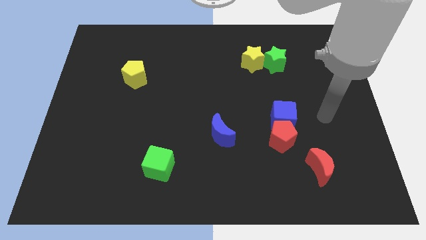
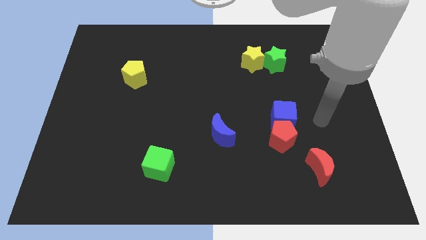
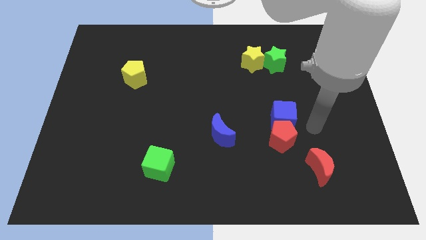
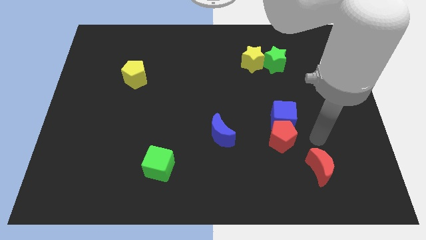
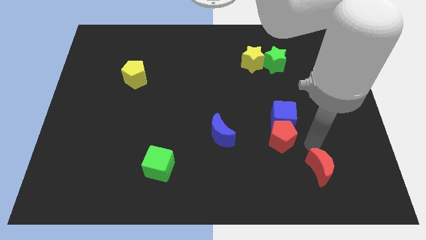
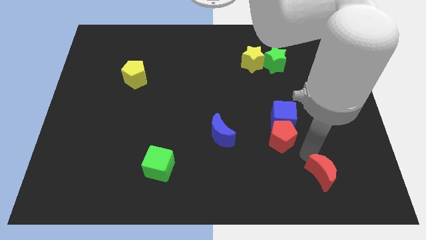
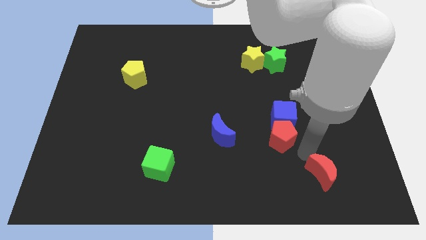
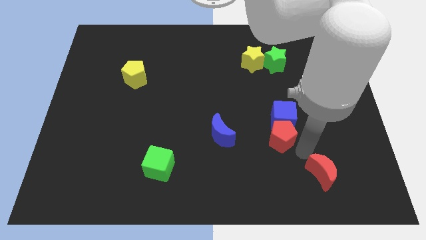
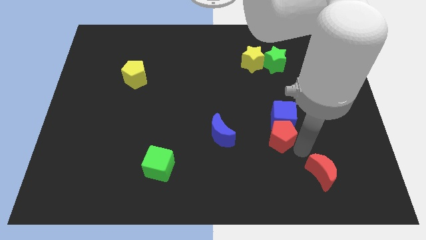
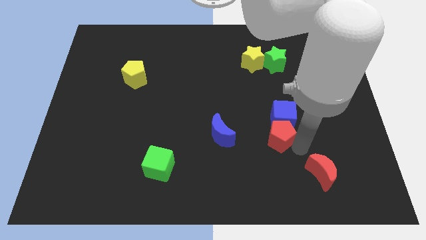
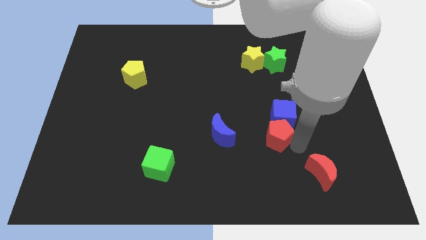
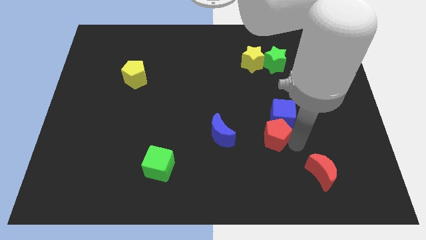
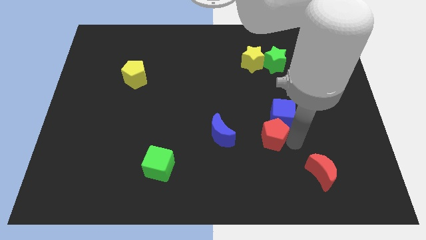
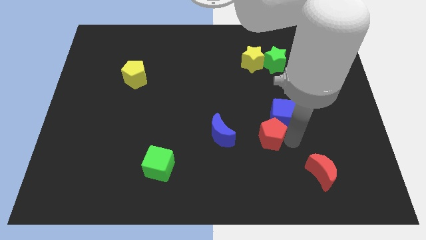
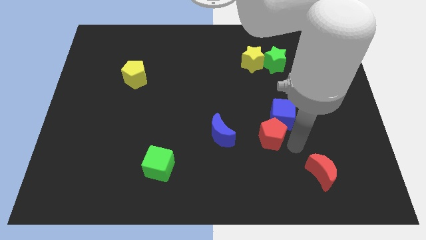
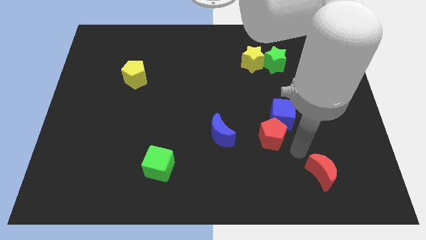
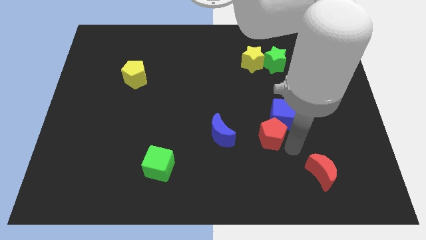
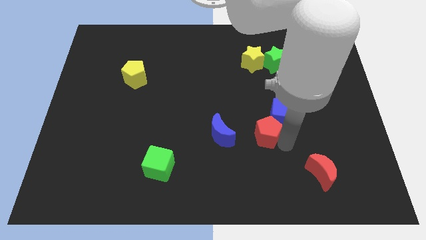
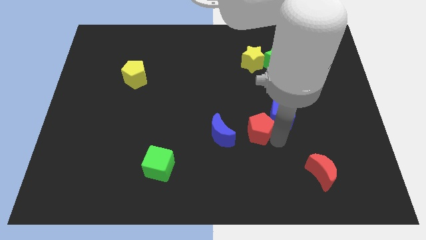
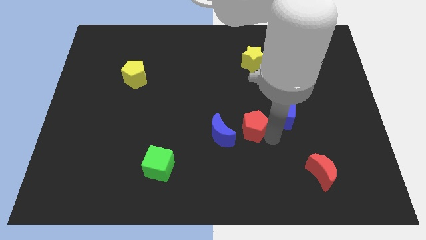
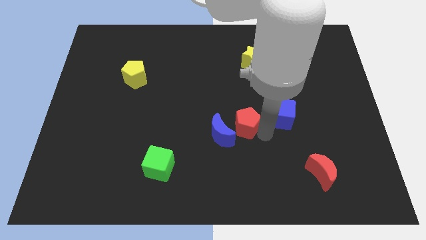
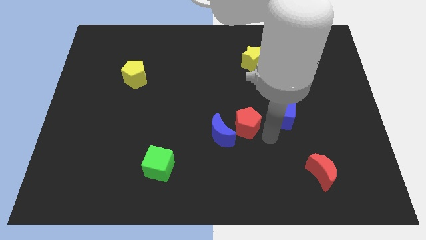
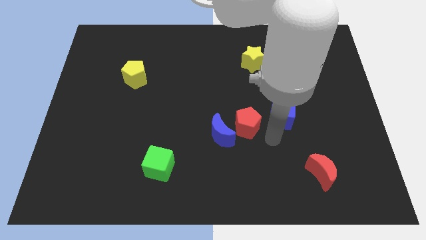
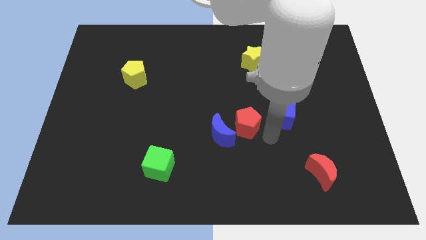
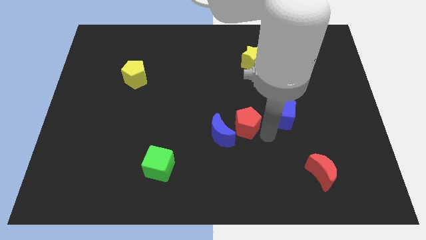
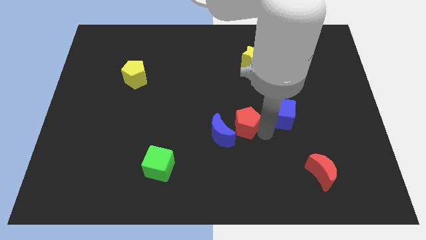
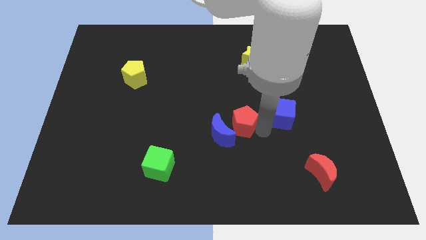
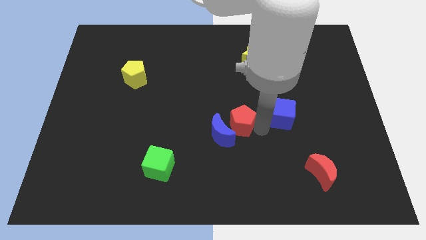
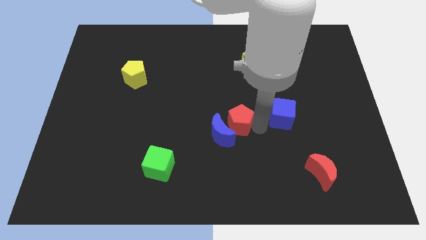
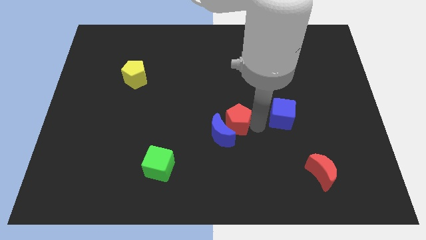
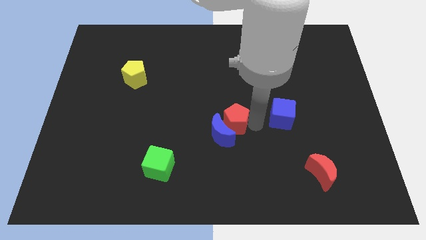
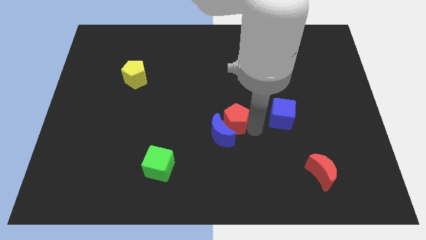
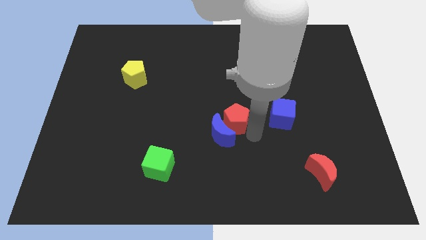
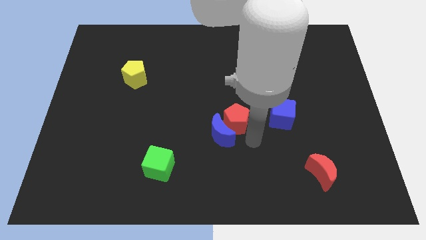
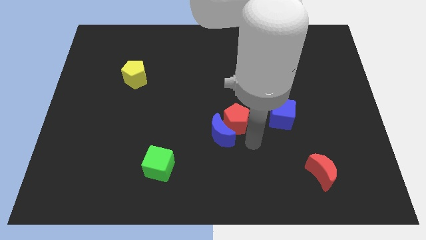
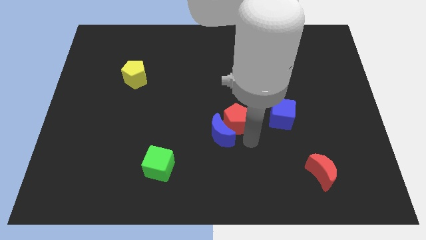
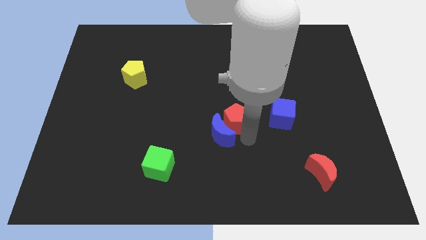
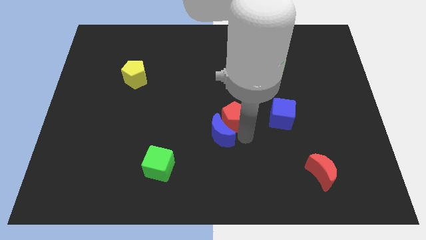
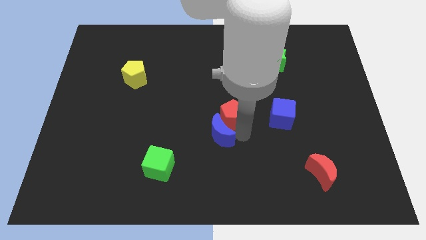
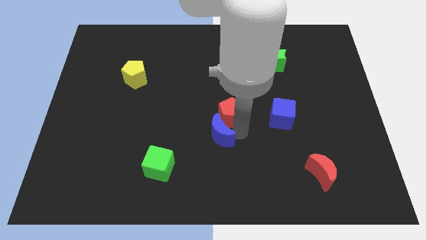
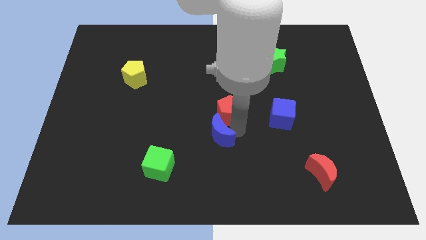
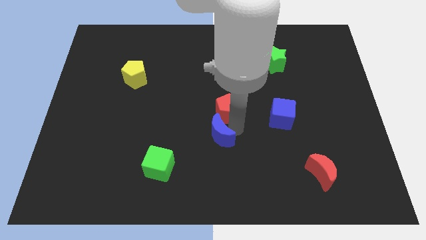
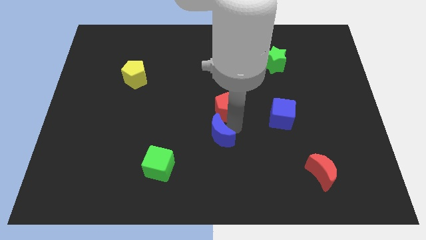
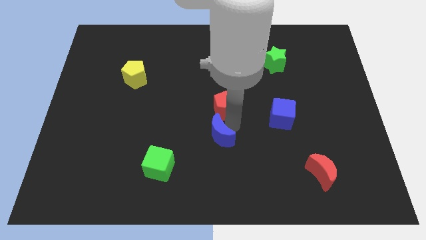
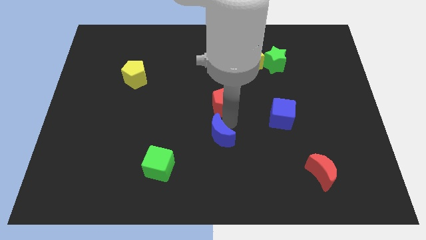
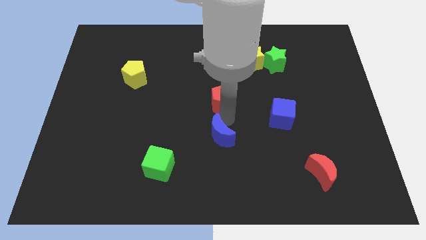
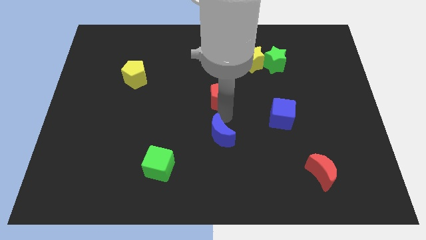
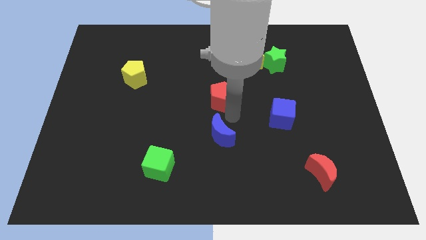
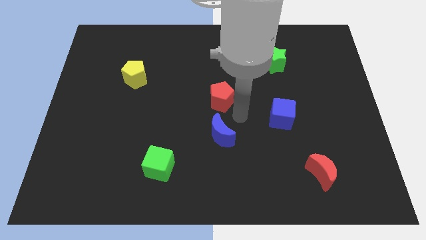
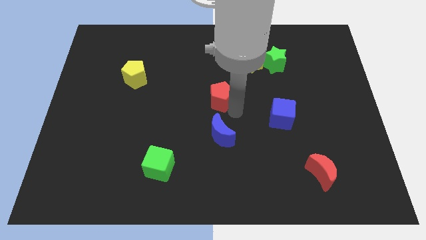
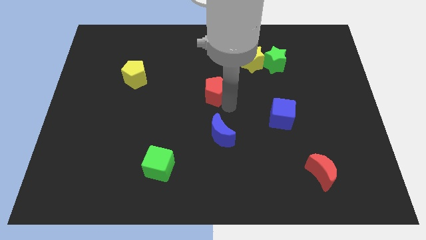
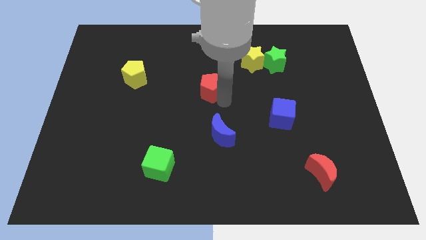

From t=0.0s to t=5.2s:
move the red pentagon up and to the left diagonally

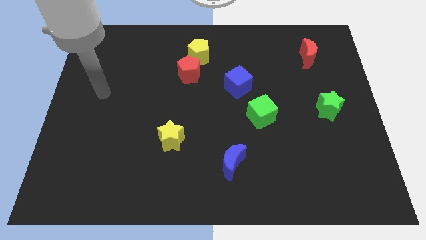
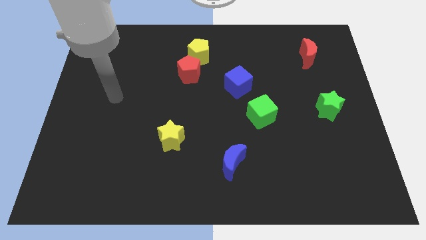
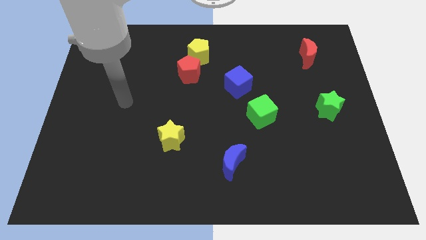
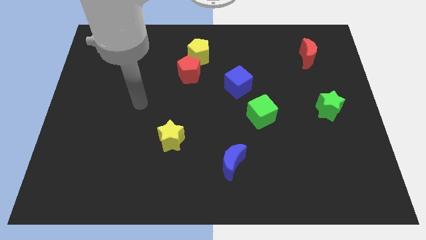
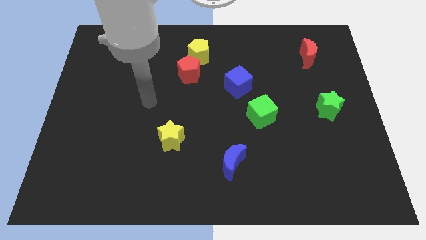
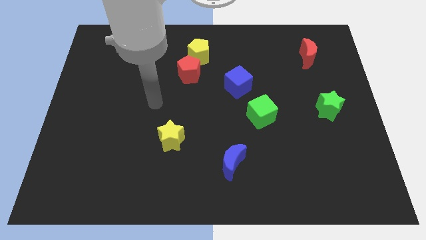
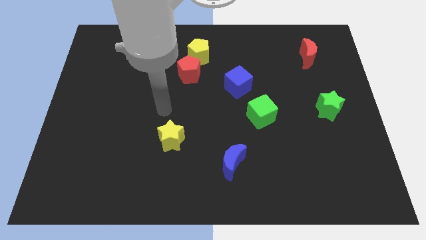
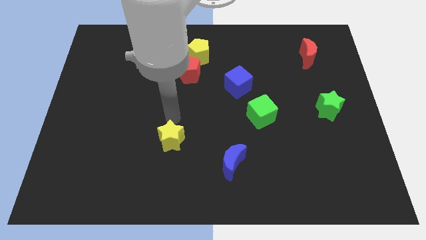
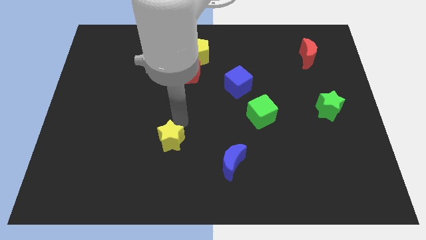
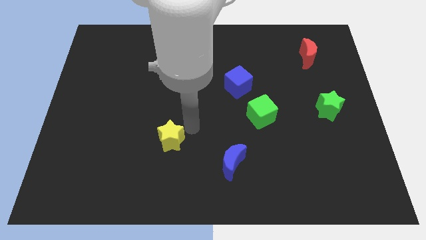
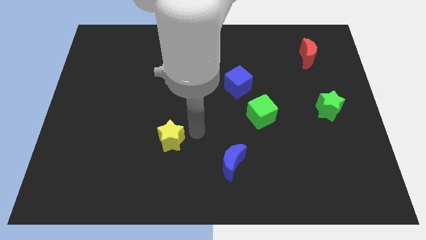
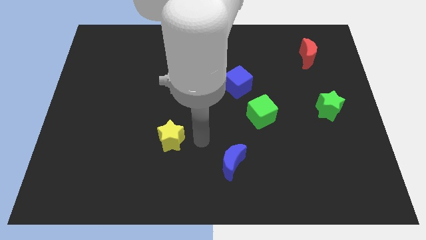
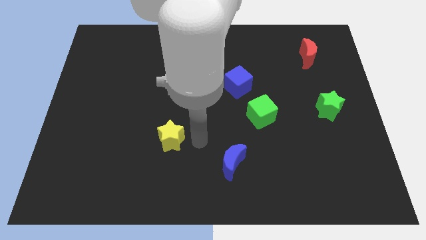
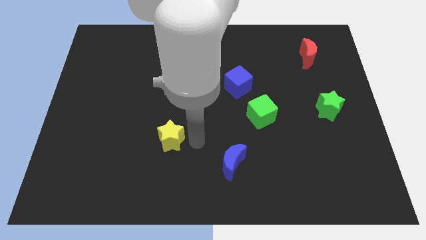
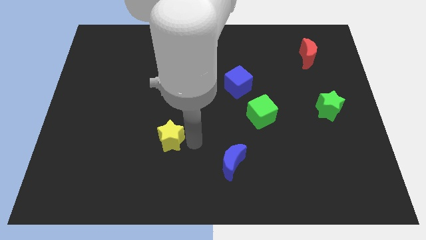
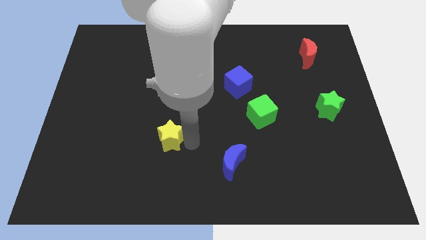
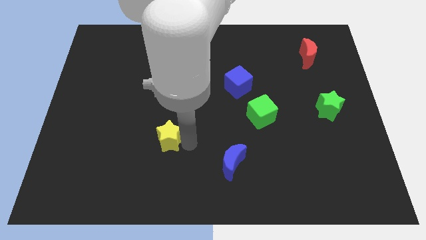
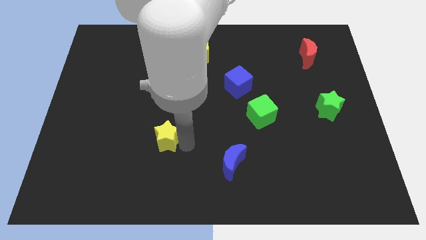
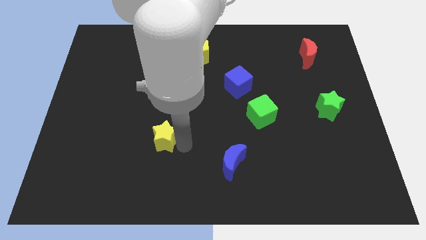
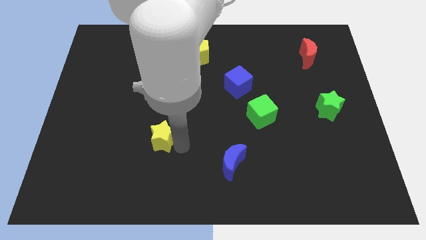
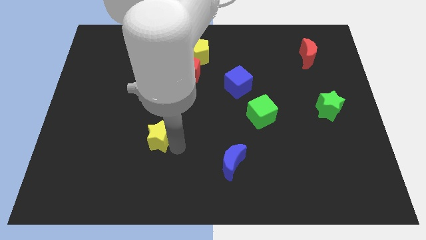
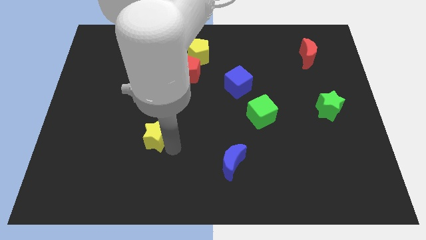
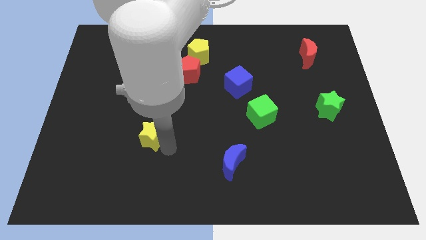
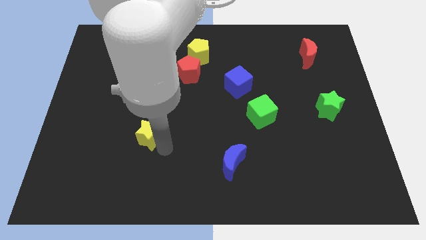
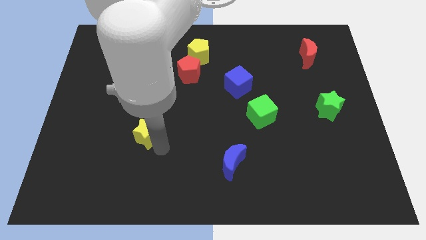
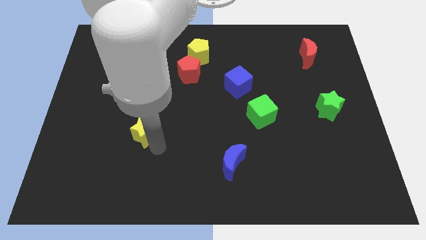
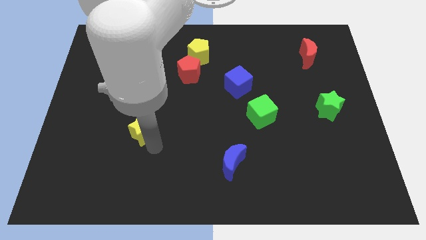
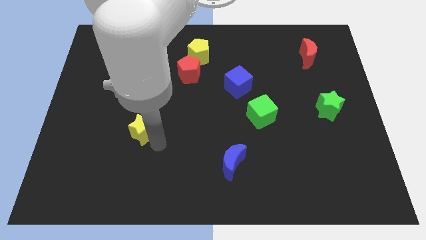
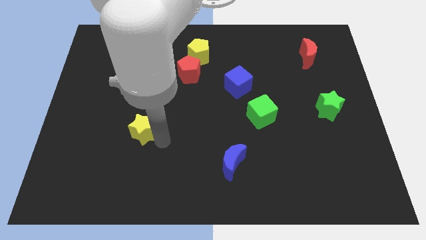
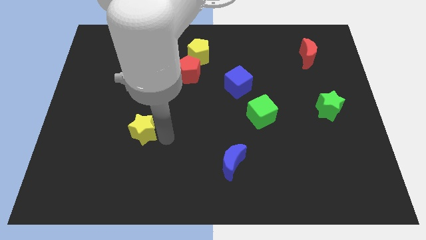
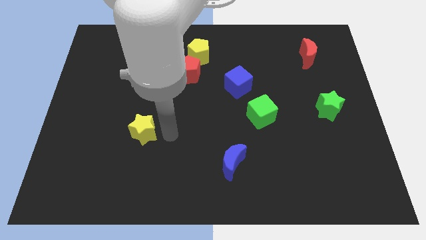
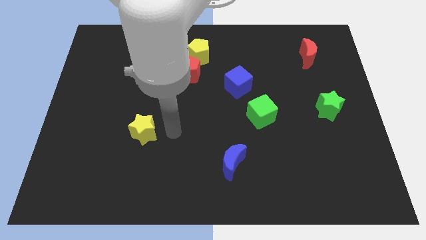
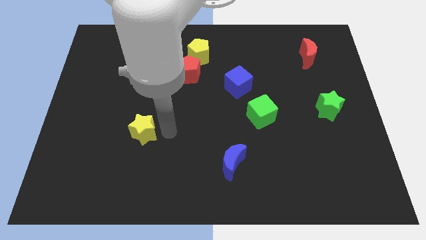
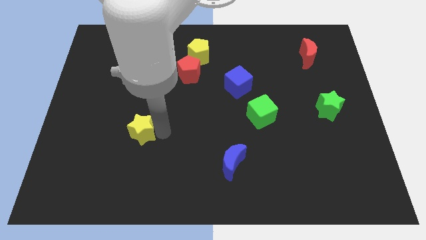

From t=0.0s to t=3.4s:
slightly move the yellow star left
